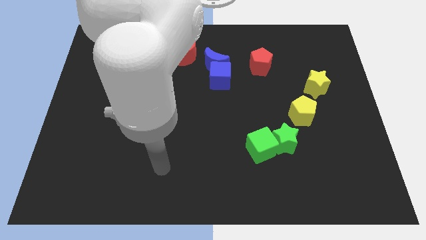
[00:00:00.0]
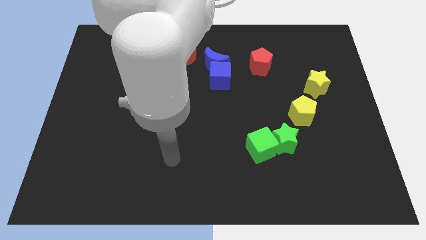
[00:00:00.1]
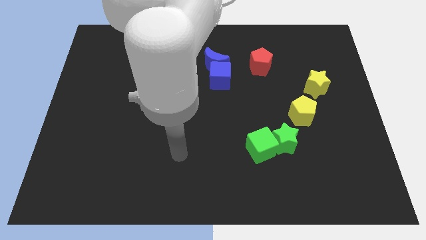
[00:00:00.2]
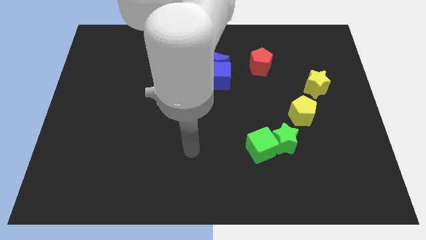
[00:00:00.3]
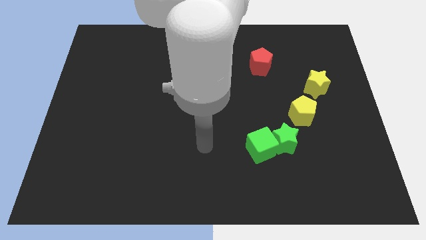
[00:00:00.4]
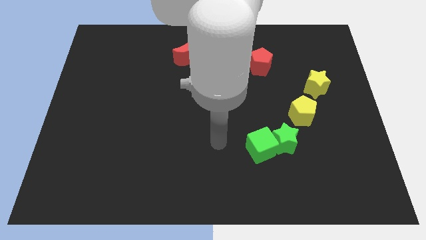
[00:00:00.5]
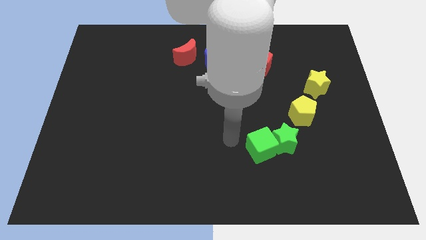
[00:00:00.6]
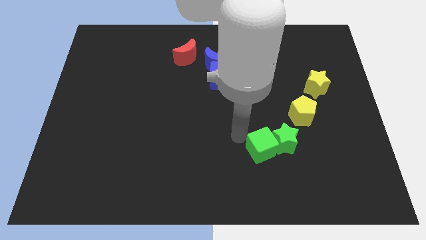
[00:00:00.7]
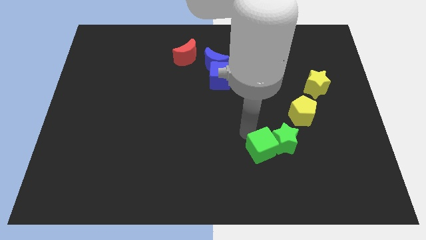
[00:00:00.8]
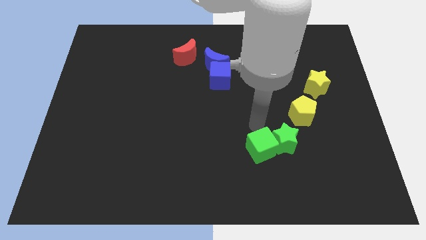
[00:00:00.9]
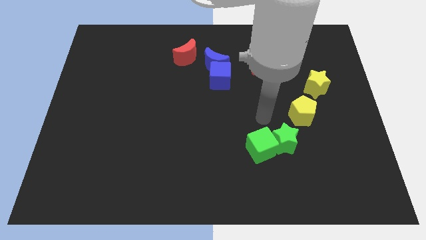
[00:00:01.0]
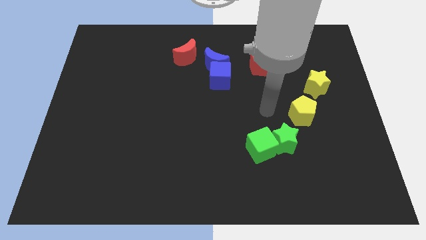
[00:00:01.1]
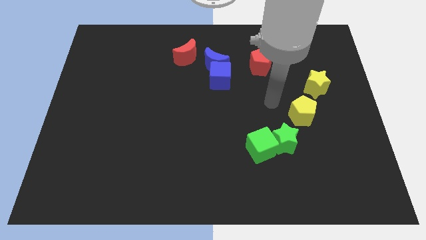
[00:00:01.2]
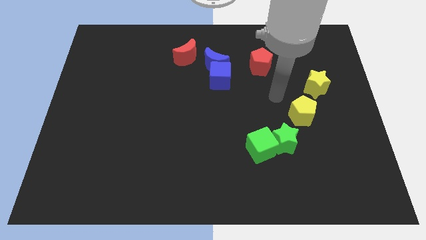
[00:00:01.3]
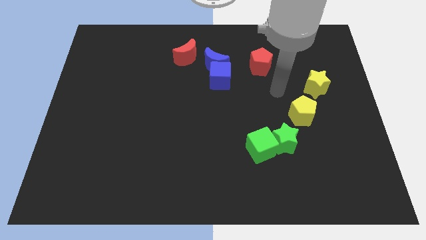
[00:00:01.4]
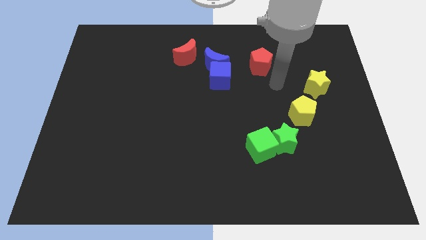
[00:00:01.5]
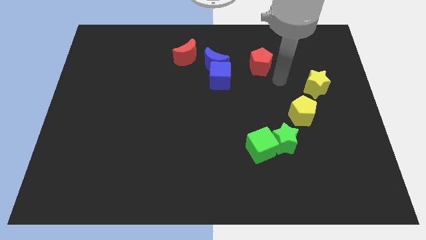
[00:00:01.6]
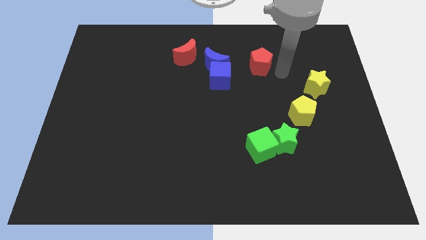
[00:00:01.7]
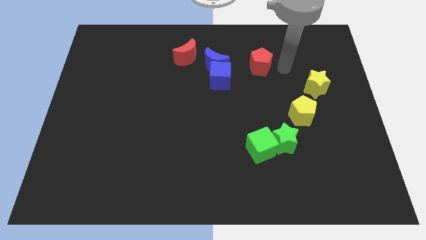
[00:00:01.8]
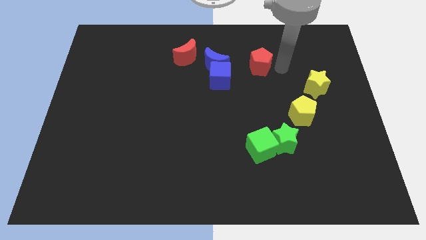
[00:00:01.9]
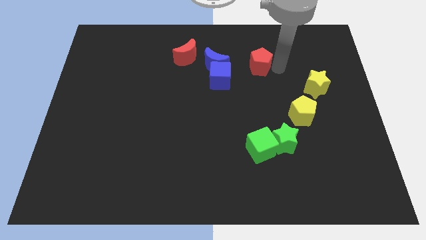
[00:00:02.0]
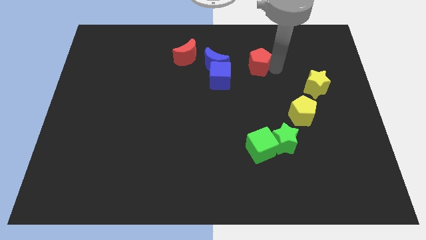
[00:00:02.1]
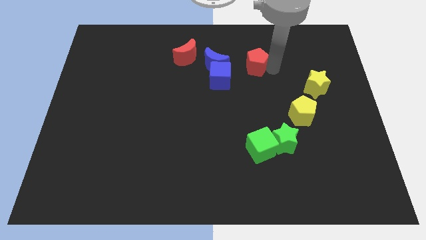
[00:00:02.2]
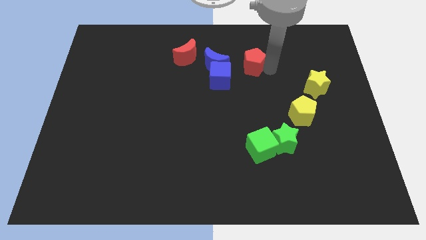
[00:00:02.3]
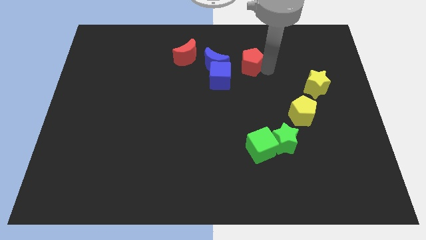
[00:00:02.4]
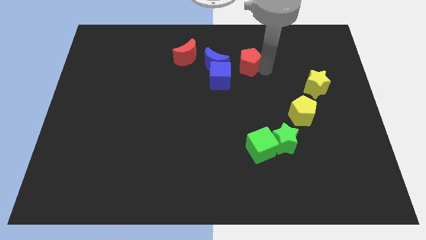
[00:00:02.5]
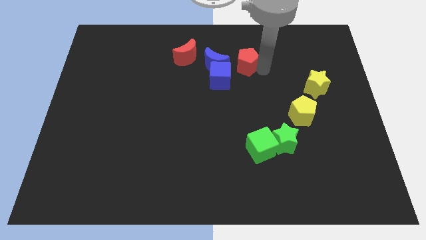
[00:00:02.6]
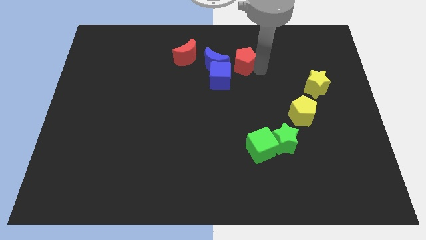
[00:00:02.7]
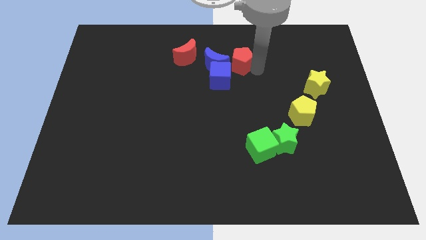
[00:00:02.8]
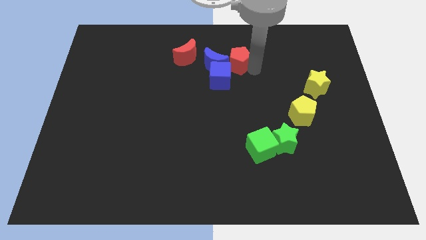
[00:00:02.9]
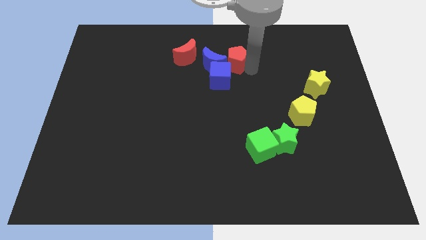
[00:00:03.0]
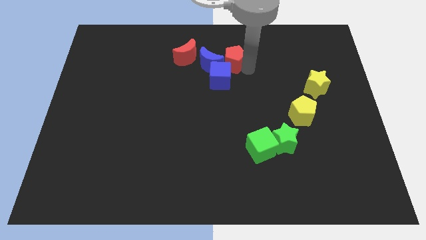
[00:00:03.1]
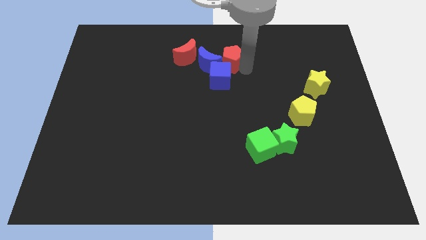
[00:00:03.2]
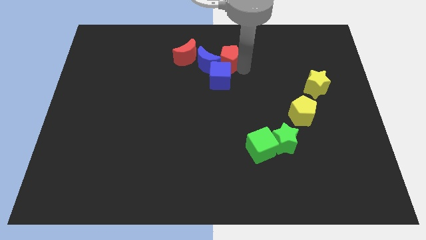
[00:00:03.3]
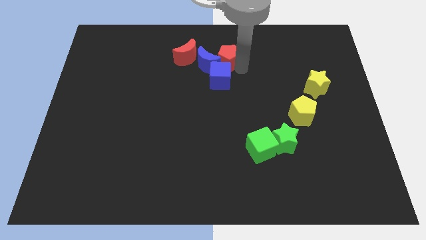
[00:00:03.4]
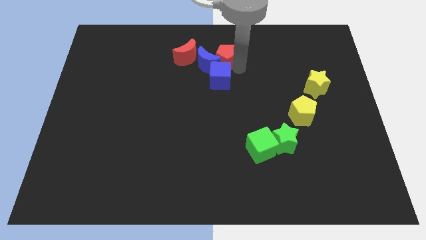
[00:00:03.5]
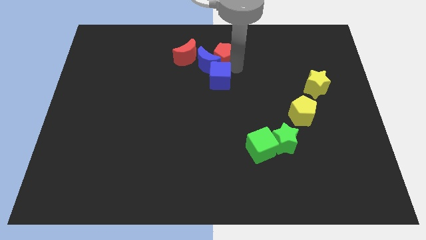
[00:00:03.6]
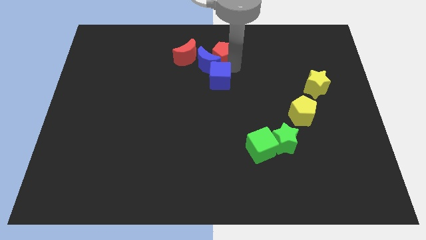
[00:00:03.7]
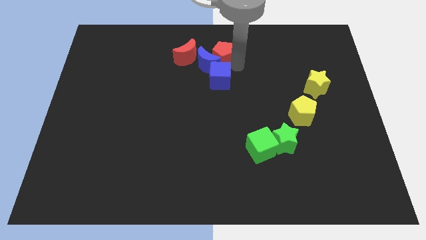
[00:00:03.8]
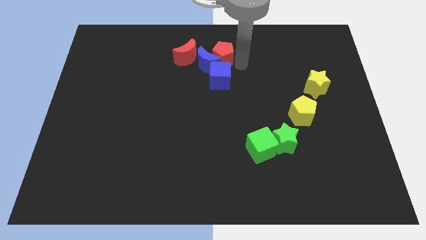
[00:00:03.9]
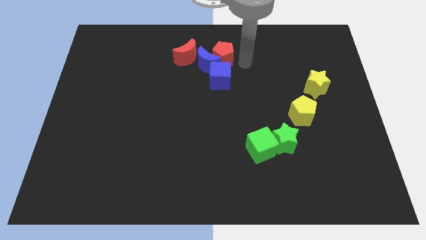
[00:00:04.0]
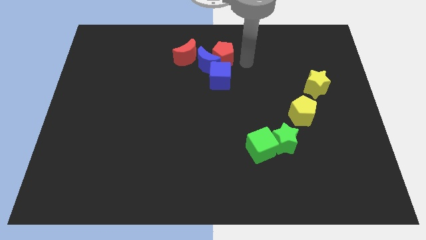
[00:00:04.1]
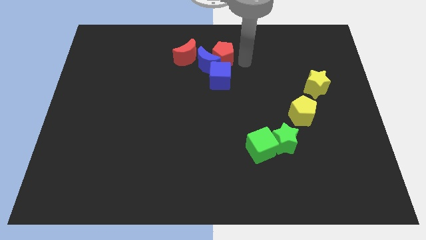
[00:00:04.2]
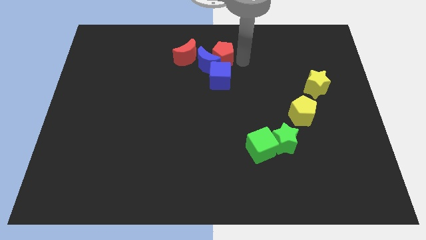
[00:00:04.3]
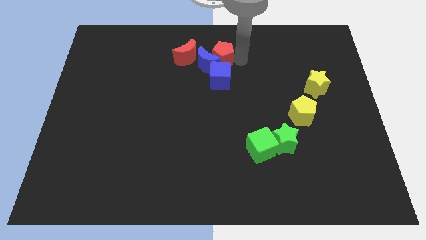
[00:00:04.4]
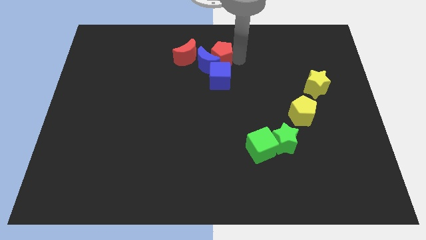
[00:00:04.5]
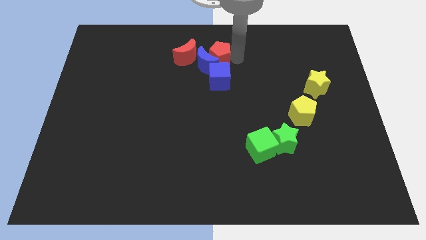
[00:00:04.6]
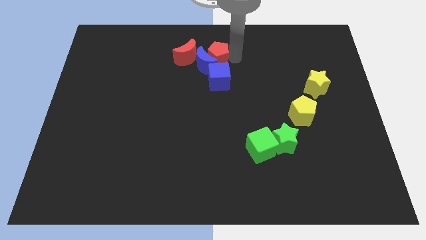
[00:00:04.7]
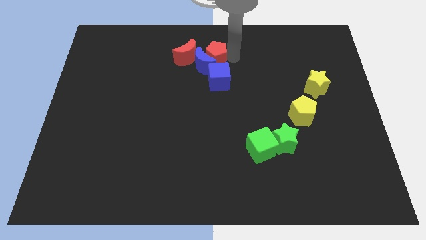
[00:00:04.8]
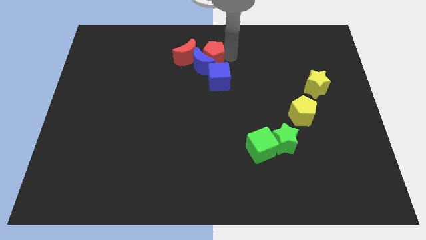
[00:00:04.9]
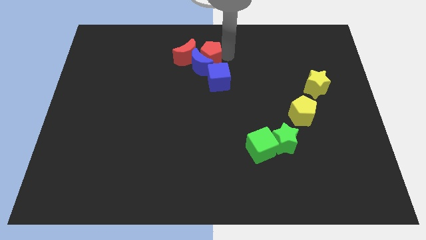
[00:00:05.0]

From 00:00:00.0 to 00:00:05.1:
push the red pentagon next to the red moon

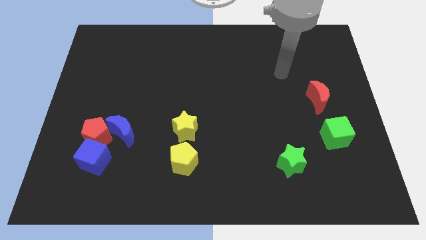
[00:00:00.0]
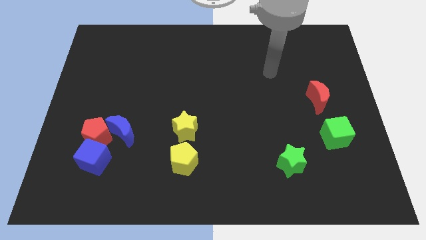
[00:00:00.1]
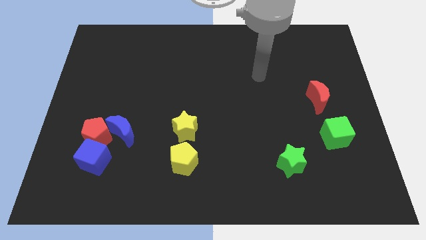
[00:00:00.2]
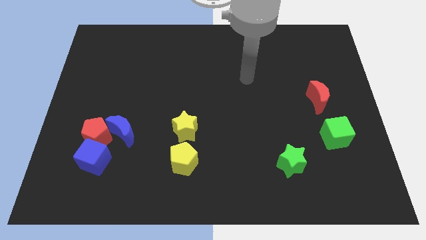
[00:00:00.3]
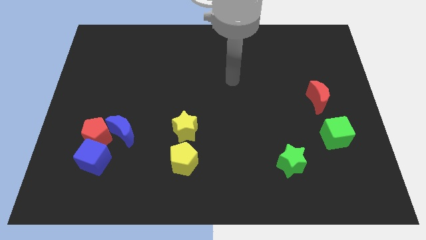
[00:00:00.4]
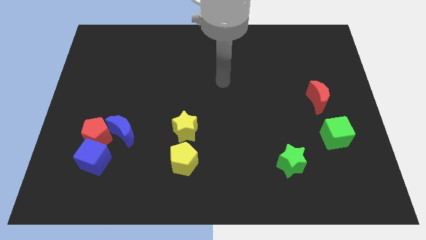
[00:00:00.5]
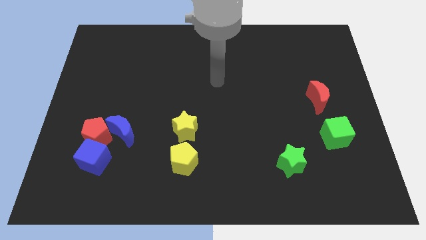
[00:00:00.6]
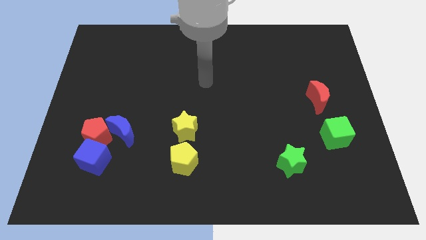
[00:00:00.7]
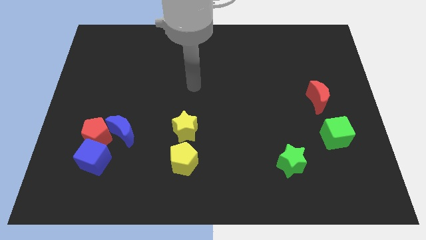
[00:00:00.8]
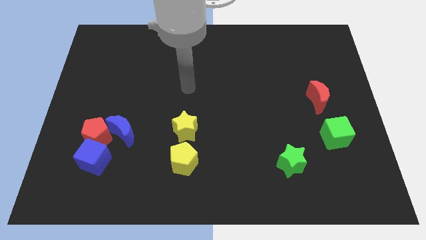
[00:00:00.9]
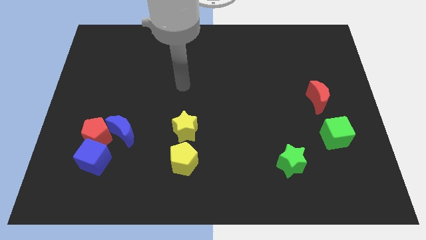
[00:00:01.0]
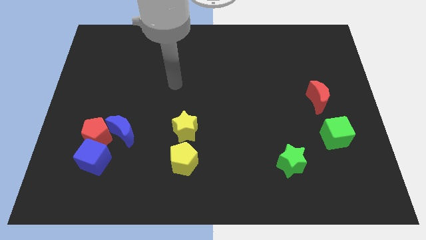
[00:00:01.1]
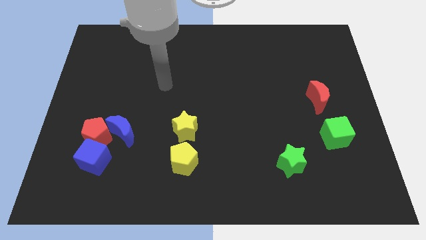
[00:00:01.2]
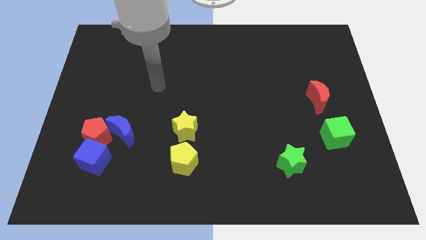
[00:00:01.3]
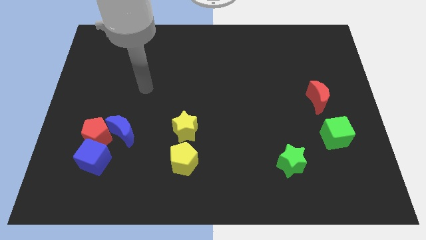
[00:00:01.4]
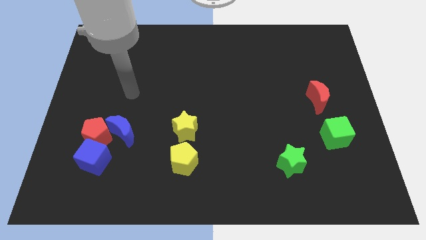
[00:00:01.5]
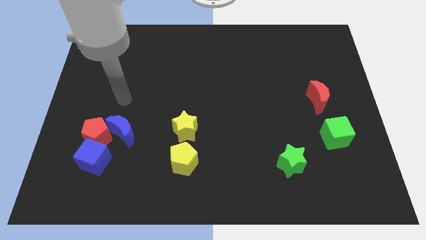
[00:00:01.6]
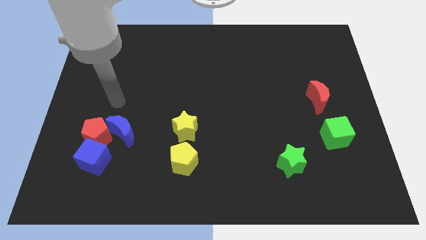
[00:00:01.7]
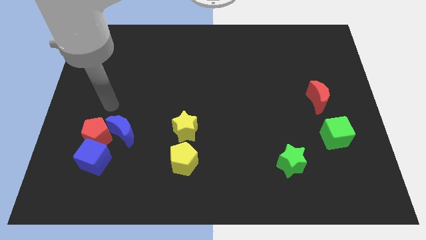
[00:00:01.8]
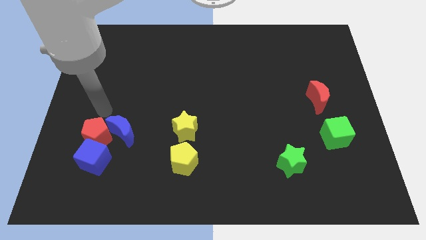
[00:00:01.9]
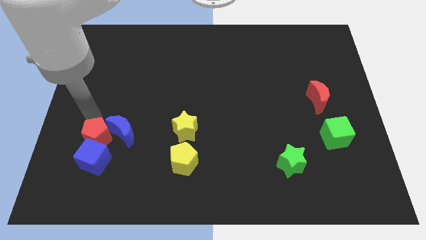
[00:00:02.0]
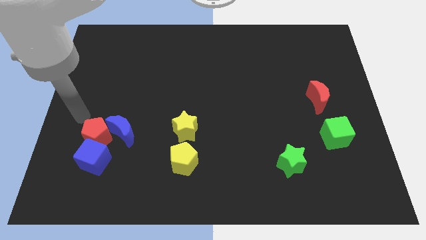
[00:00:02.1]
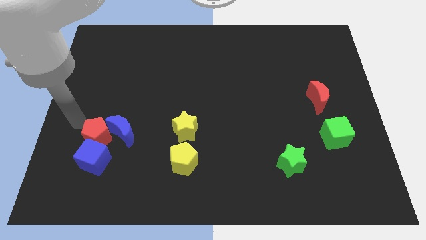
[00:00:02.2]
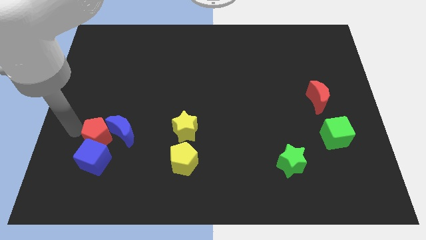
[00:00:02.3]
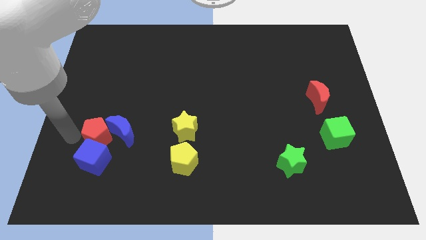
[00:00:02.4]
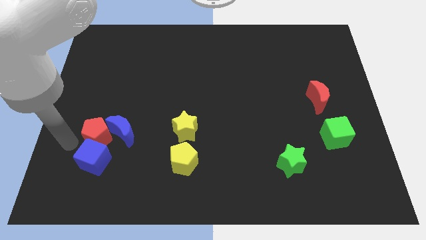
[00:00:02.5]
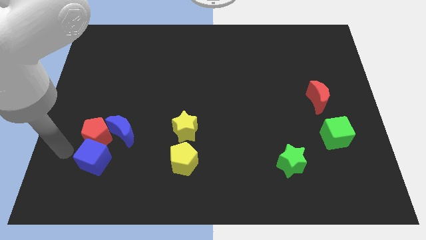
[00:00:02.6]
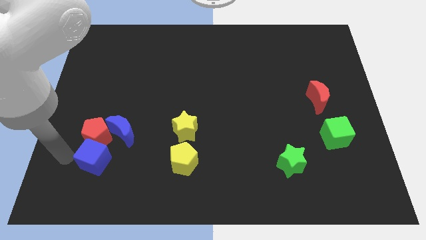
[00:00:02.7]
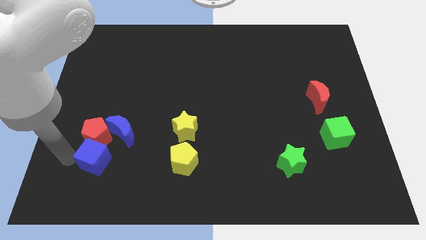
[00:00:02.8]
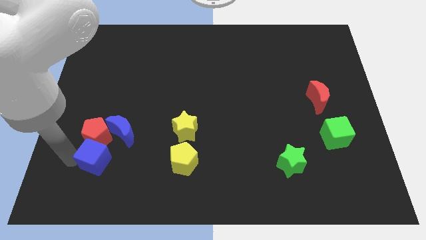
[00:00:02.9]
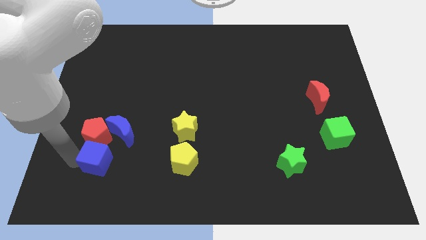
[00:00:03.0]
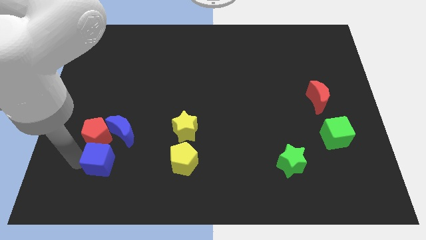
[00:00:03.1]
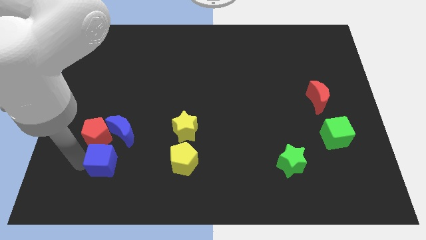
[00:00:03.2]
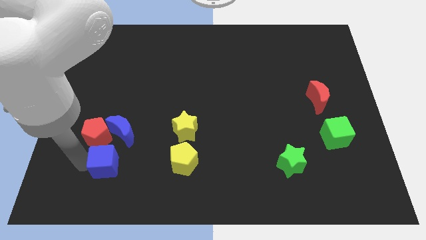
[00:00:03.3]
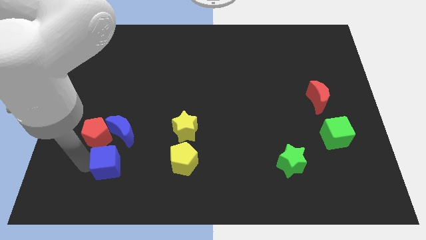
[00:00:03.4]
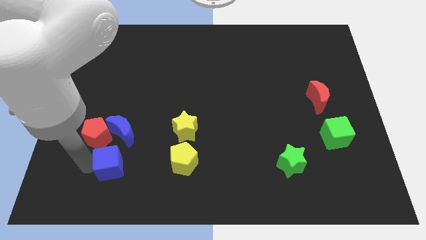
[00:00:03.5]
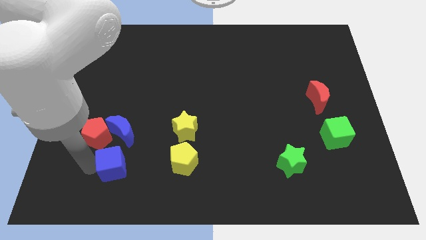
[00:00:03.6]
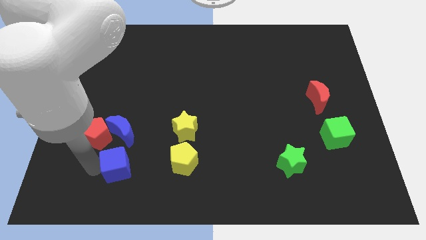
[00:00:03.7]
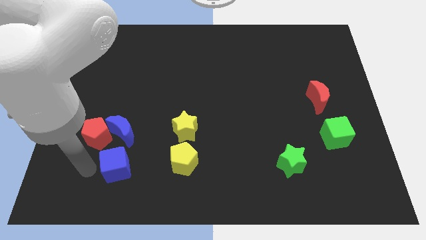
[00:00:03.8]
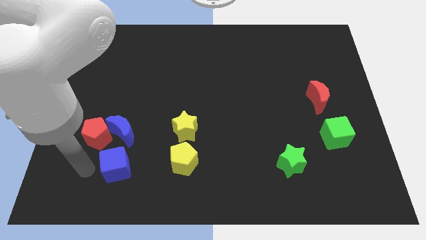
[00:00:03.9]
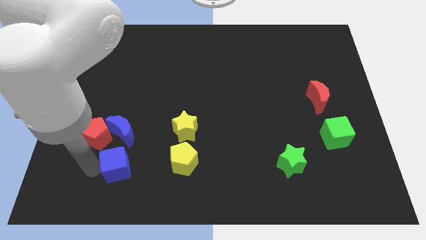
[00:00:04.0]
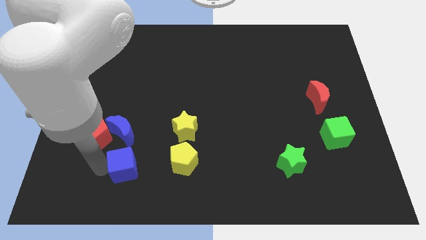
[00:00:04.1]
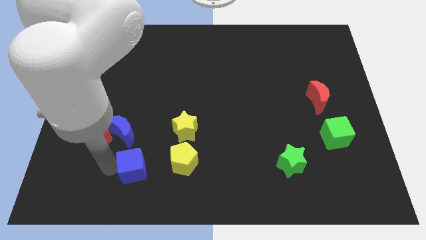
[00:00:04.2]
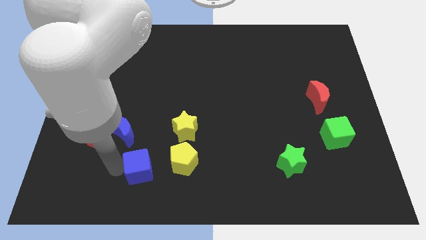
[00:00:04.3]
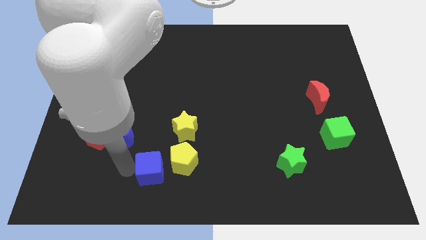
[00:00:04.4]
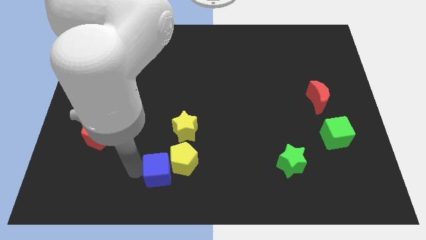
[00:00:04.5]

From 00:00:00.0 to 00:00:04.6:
push the blue cube to the yellow pentagon
